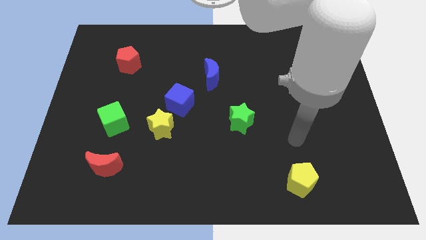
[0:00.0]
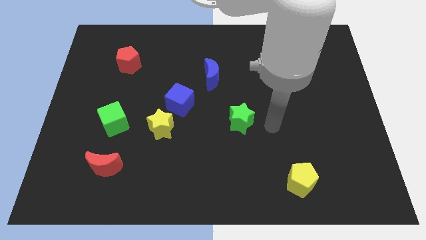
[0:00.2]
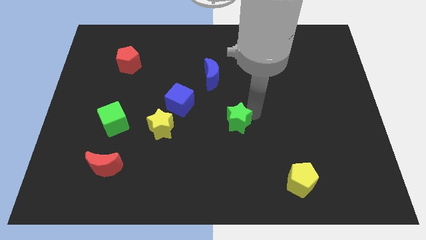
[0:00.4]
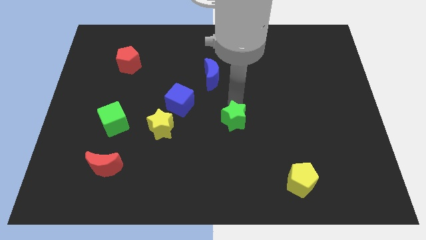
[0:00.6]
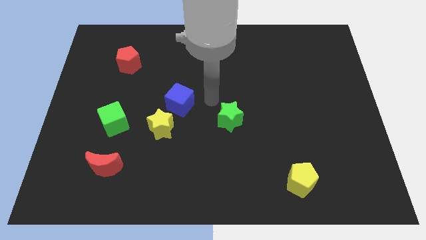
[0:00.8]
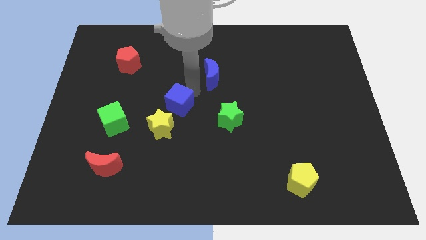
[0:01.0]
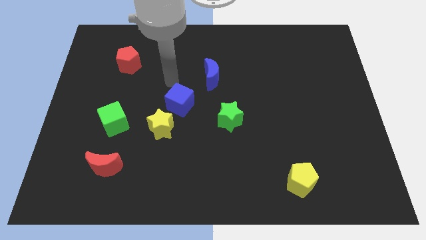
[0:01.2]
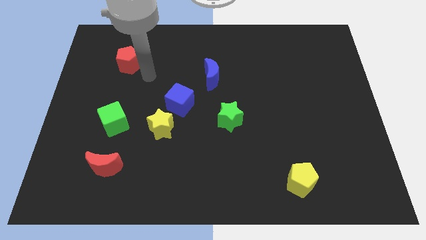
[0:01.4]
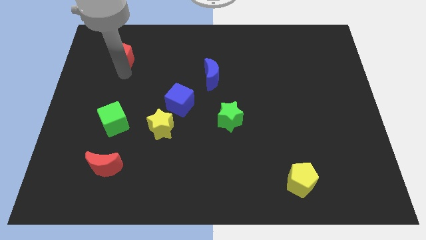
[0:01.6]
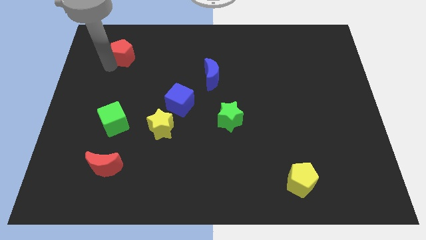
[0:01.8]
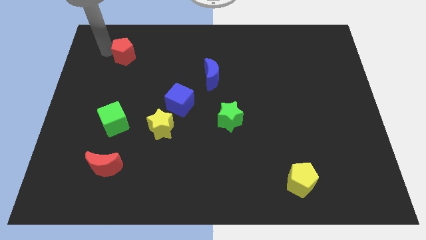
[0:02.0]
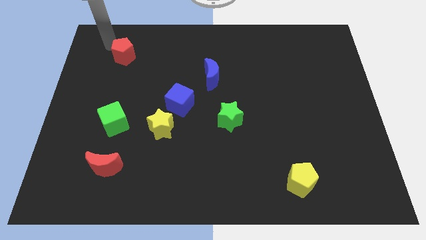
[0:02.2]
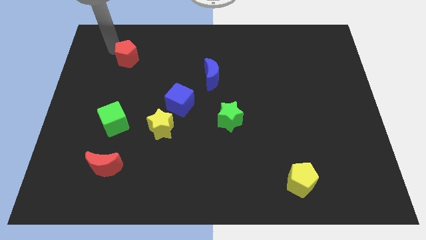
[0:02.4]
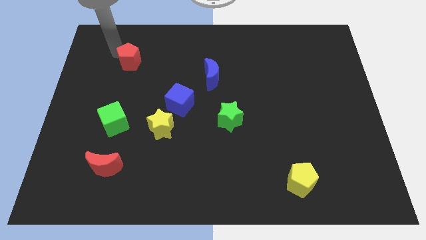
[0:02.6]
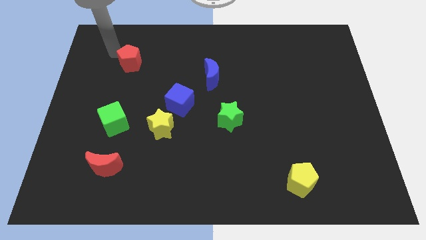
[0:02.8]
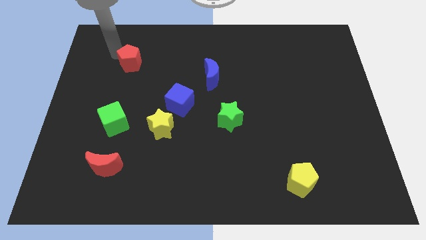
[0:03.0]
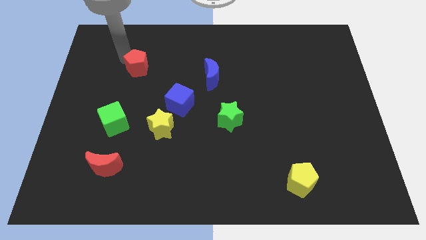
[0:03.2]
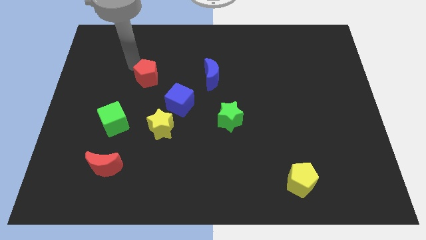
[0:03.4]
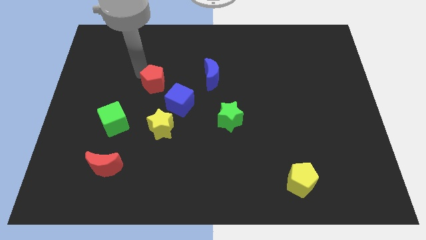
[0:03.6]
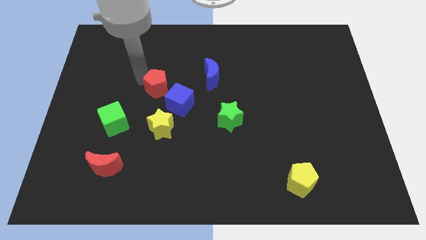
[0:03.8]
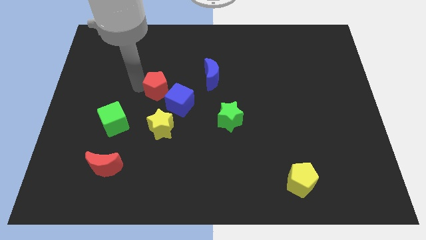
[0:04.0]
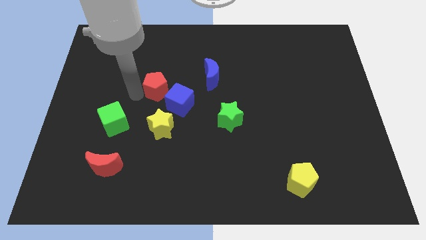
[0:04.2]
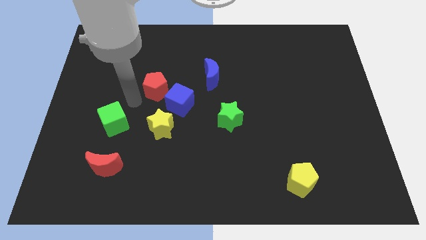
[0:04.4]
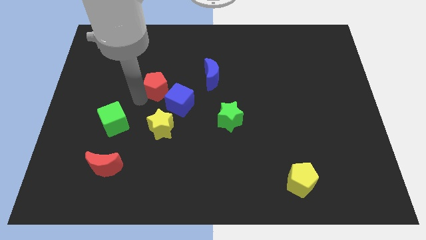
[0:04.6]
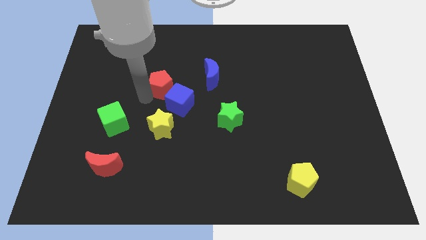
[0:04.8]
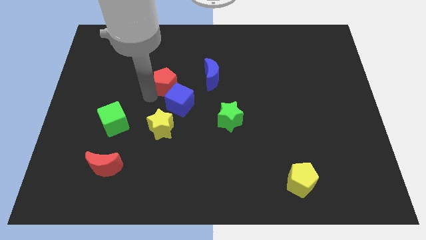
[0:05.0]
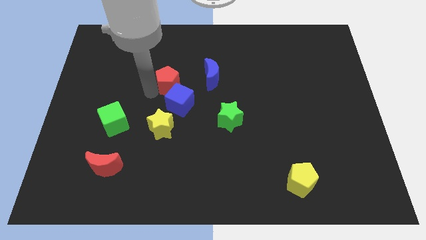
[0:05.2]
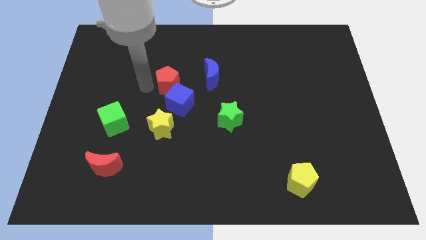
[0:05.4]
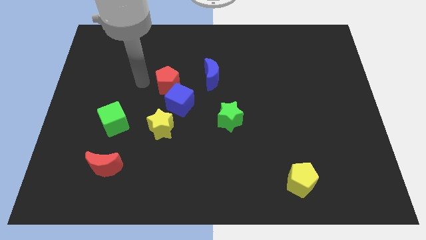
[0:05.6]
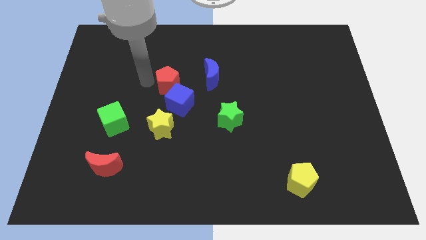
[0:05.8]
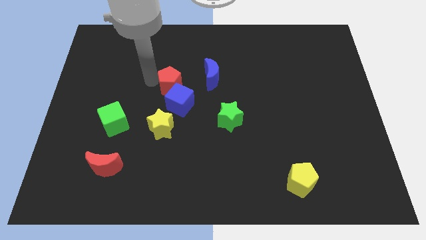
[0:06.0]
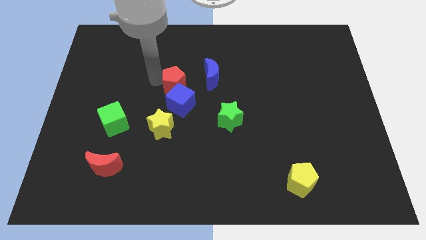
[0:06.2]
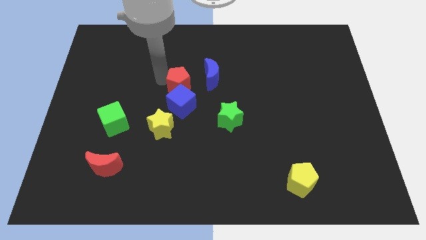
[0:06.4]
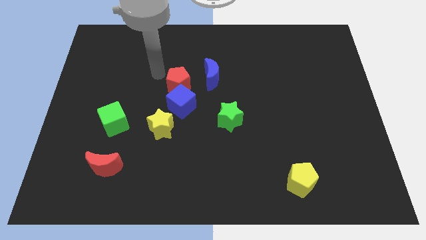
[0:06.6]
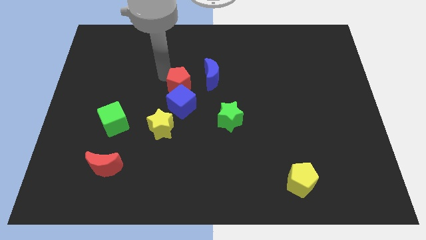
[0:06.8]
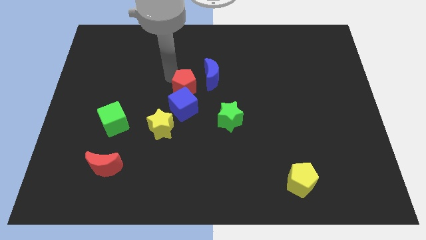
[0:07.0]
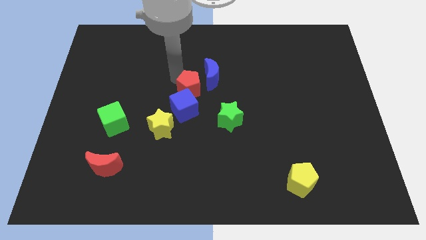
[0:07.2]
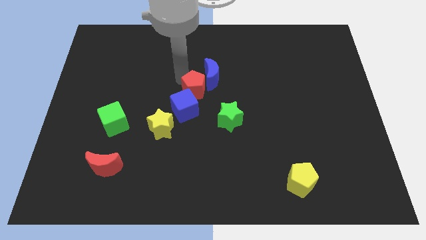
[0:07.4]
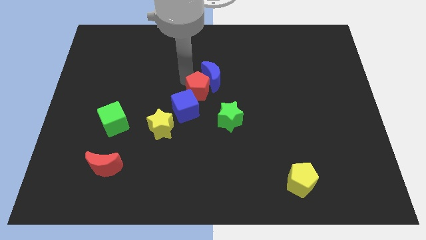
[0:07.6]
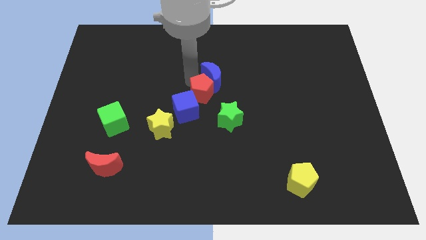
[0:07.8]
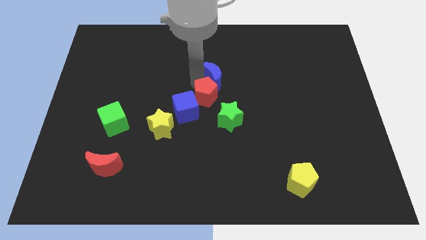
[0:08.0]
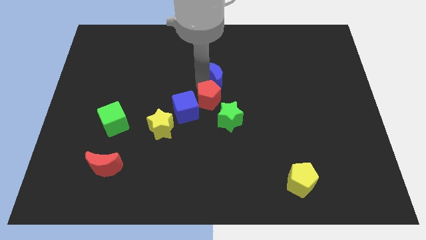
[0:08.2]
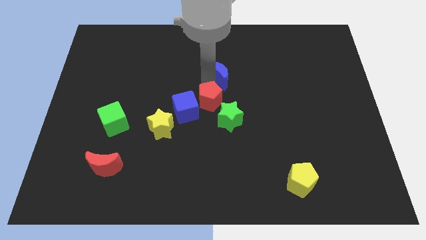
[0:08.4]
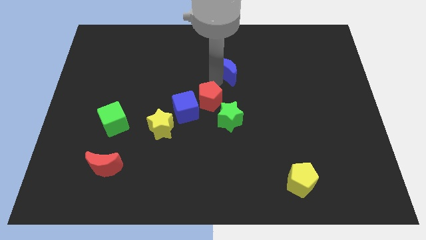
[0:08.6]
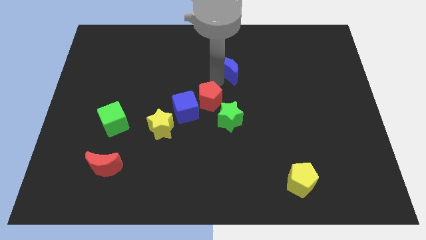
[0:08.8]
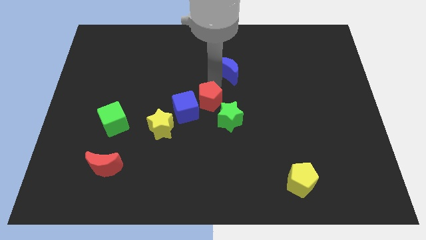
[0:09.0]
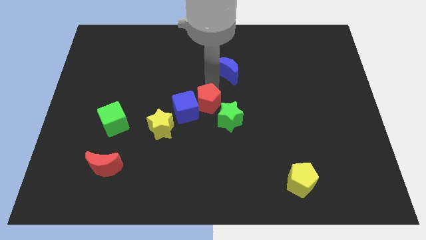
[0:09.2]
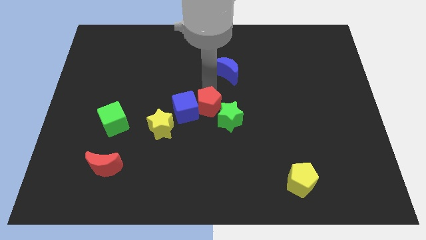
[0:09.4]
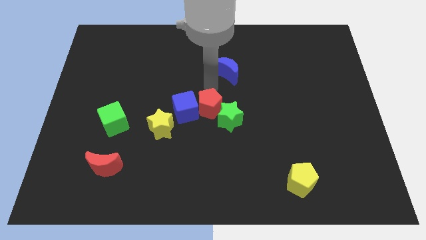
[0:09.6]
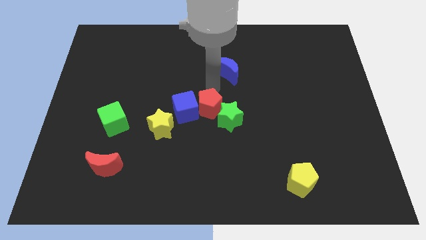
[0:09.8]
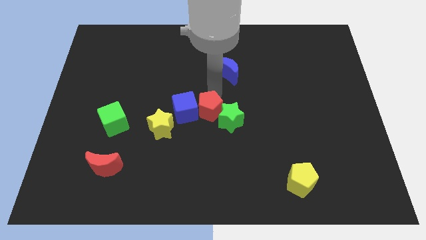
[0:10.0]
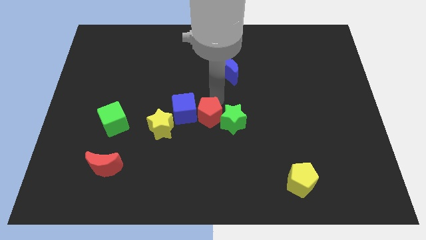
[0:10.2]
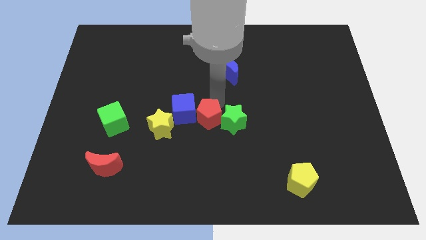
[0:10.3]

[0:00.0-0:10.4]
slide the red pentagon to the bottom left side of the green star

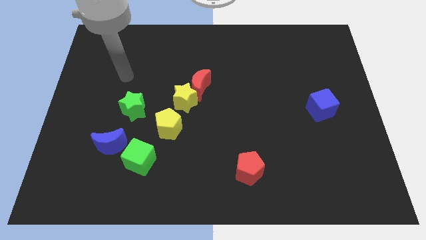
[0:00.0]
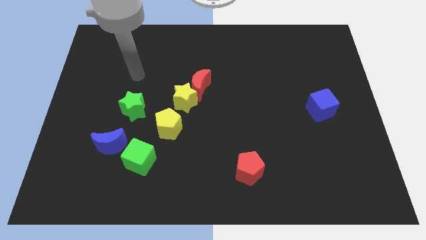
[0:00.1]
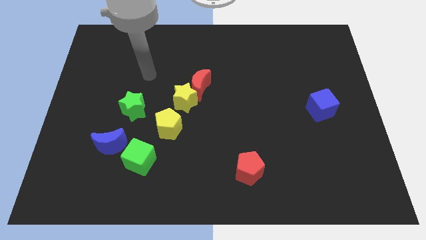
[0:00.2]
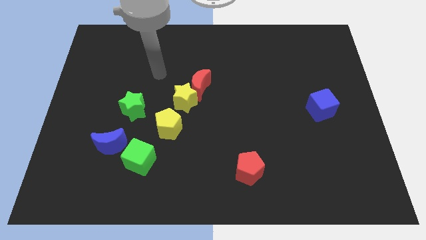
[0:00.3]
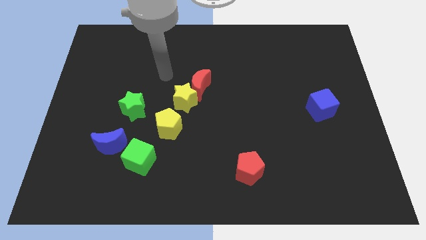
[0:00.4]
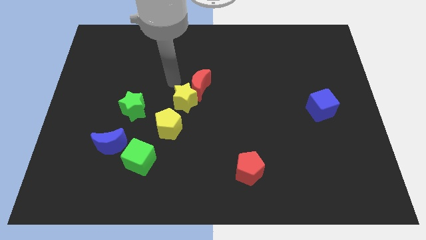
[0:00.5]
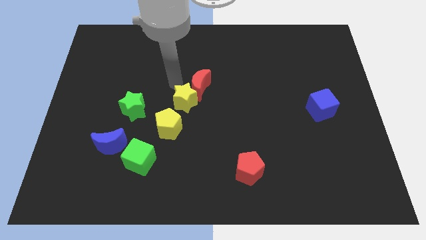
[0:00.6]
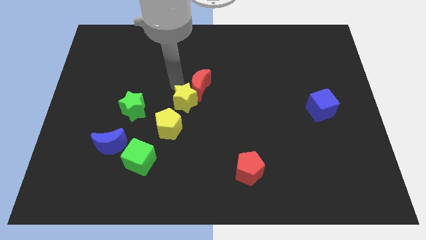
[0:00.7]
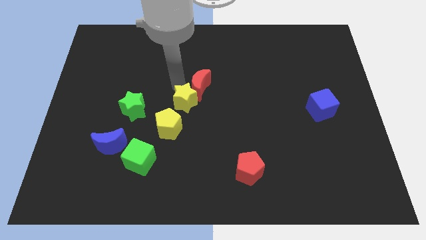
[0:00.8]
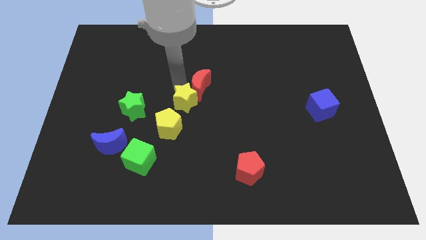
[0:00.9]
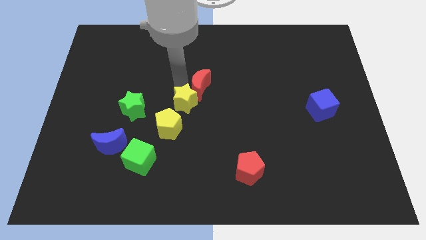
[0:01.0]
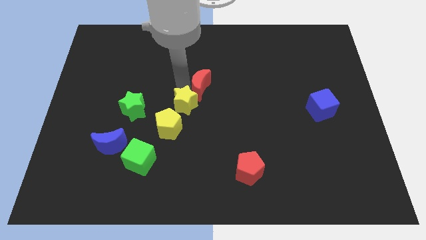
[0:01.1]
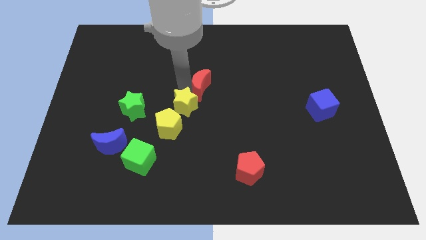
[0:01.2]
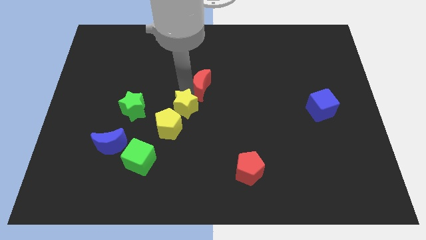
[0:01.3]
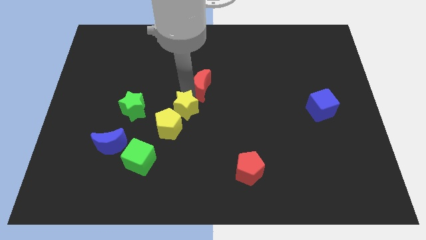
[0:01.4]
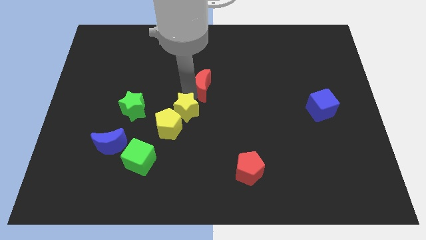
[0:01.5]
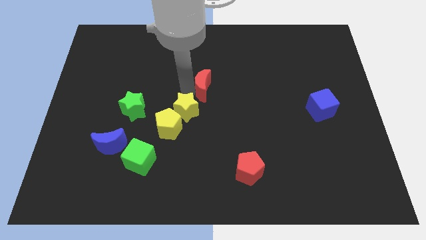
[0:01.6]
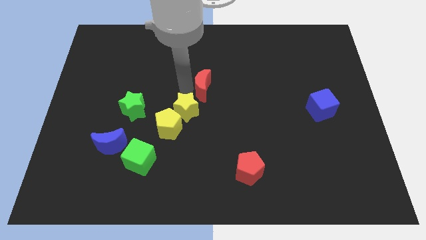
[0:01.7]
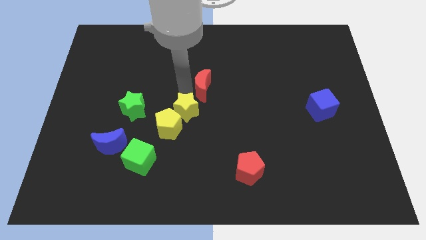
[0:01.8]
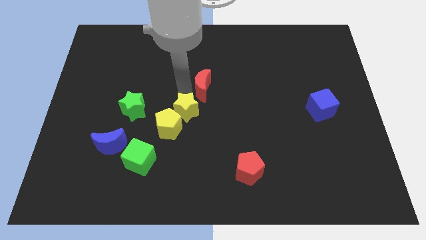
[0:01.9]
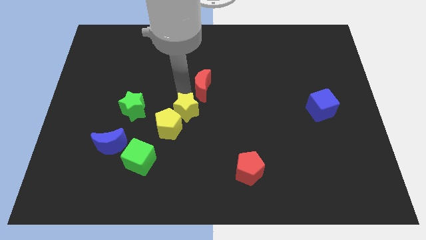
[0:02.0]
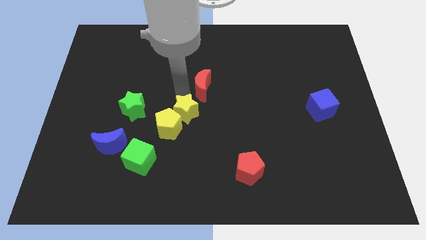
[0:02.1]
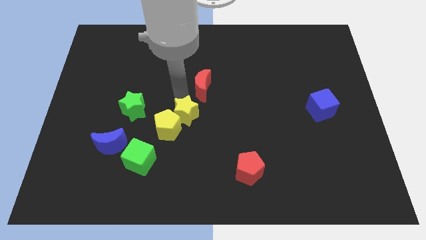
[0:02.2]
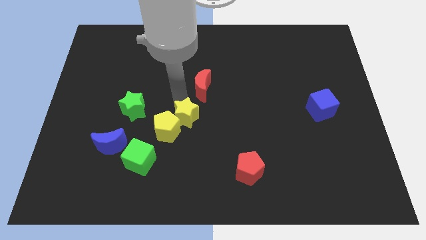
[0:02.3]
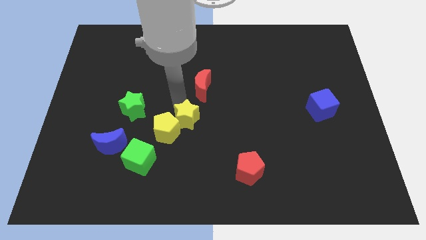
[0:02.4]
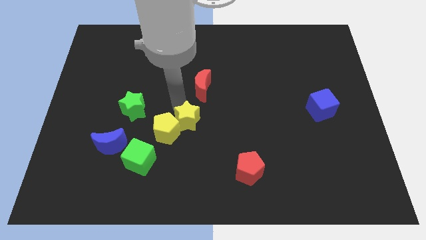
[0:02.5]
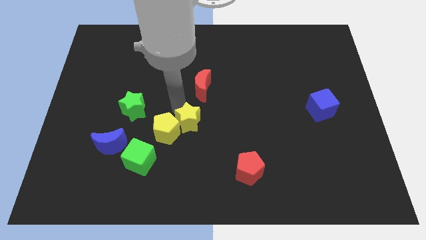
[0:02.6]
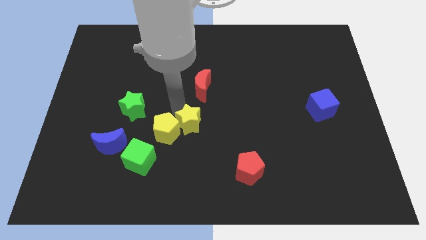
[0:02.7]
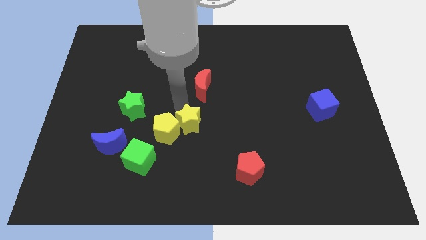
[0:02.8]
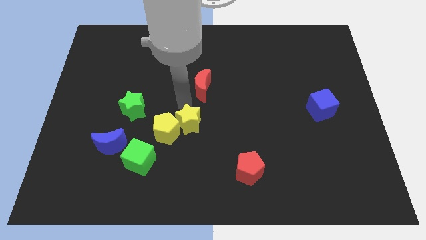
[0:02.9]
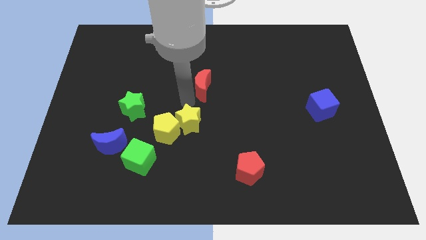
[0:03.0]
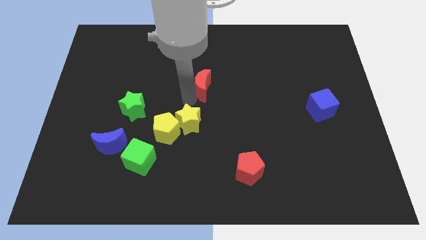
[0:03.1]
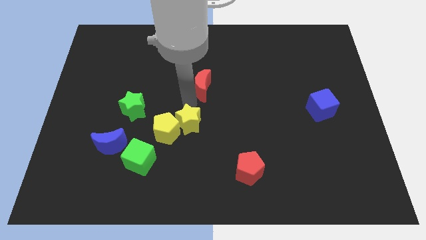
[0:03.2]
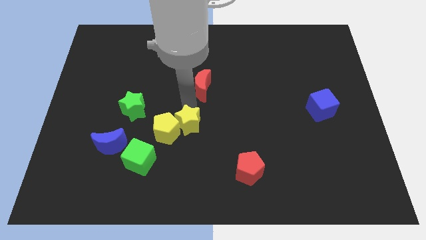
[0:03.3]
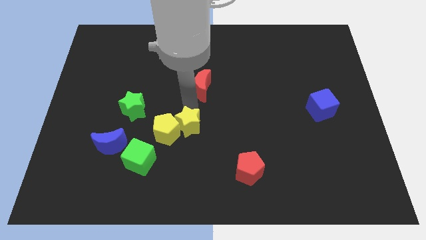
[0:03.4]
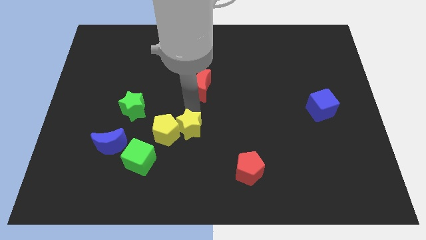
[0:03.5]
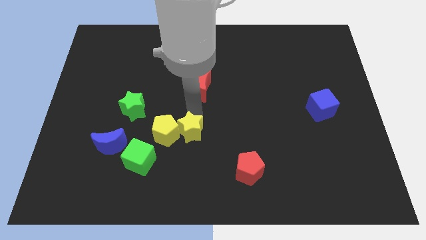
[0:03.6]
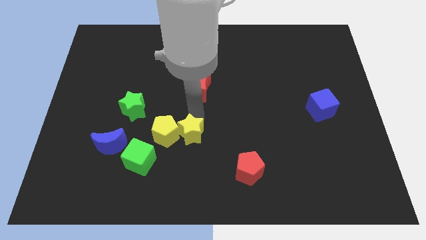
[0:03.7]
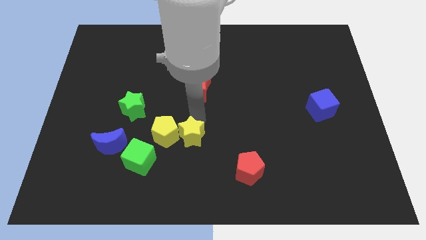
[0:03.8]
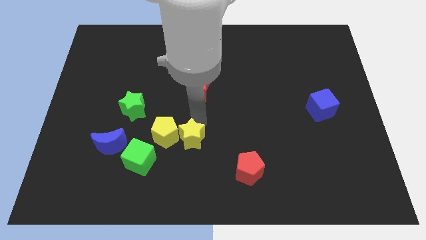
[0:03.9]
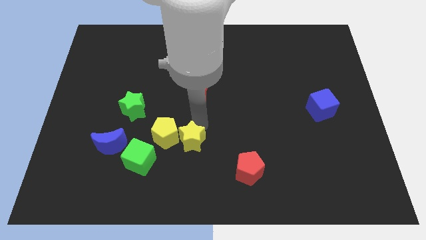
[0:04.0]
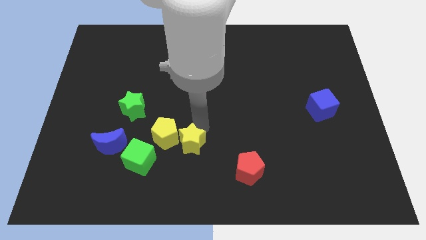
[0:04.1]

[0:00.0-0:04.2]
put the yellow star just right of the green cube
